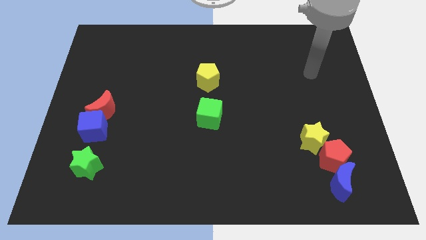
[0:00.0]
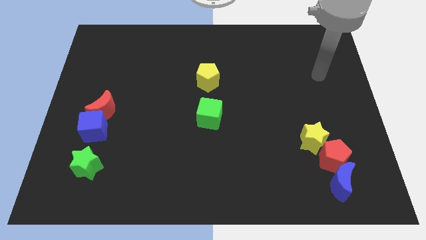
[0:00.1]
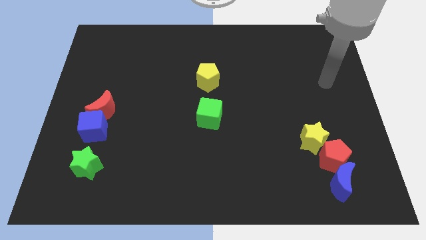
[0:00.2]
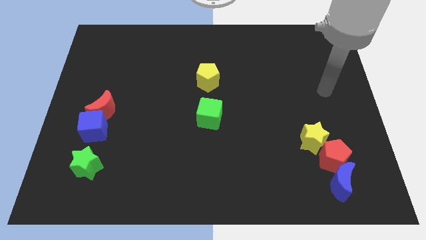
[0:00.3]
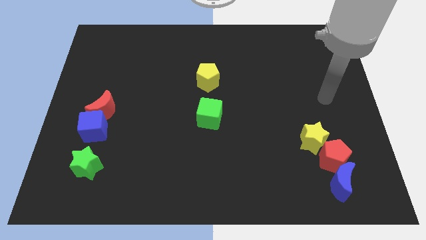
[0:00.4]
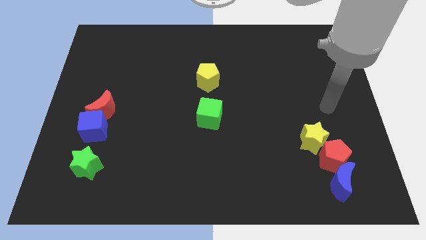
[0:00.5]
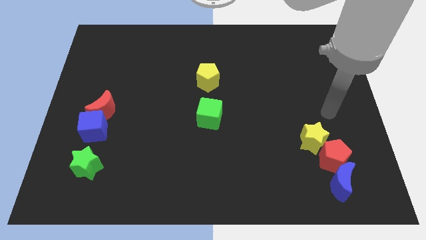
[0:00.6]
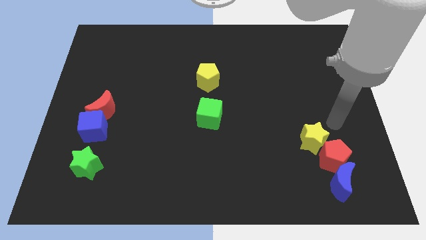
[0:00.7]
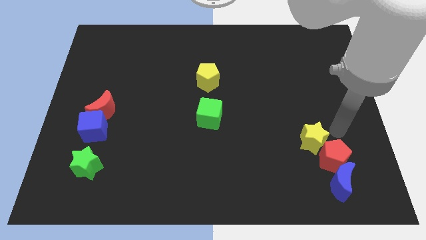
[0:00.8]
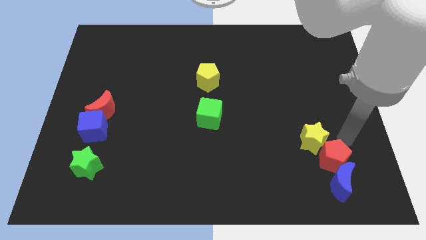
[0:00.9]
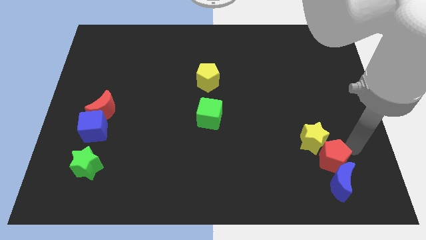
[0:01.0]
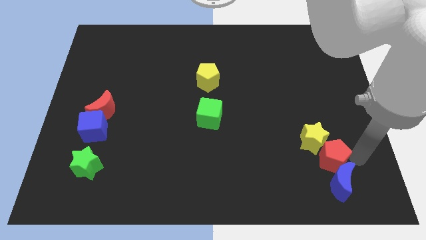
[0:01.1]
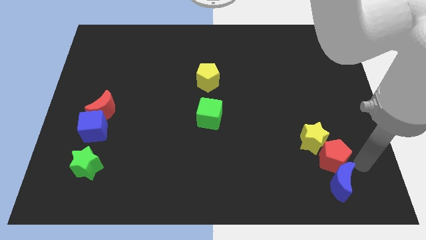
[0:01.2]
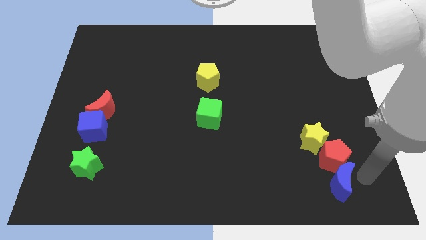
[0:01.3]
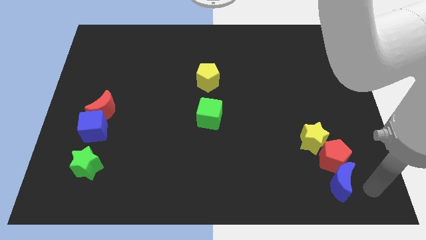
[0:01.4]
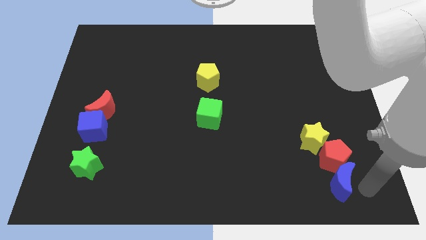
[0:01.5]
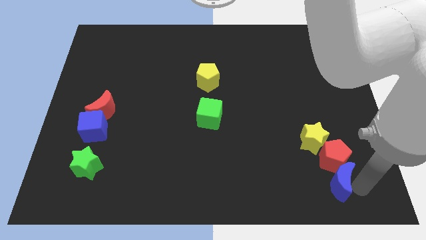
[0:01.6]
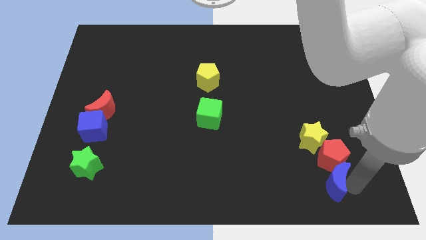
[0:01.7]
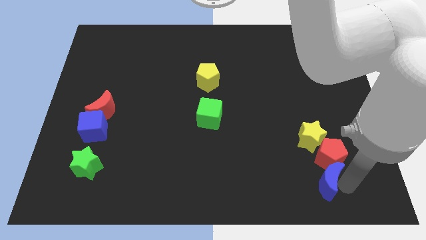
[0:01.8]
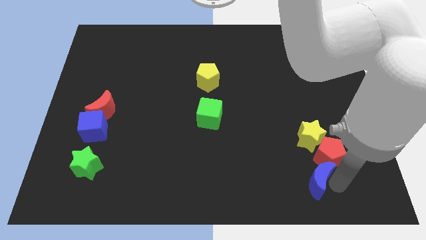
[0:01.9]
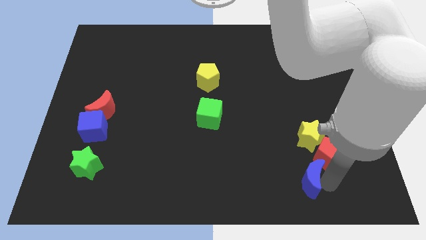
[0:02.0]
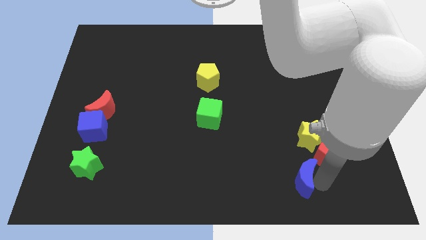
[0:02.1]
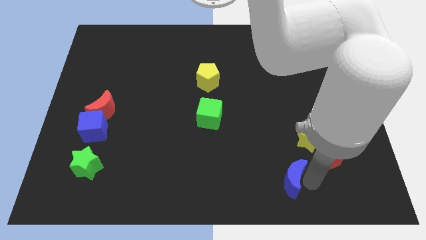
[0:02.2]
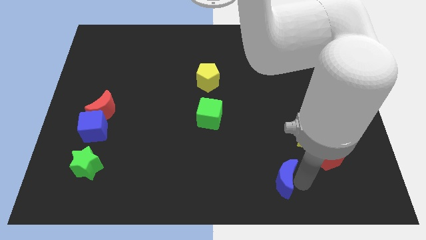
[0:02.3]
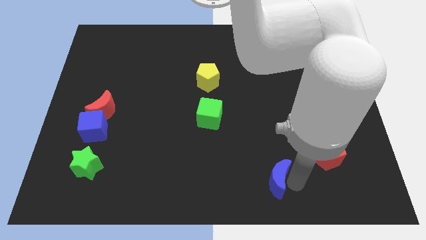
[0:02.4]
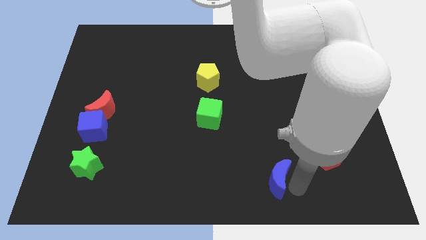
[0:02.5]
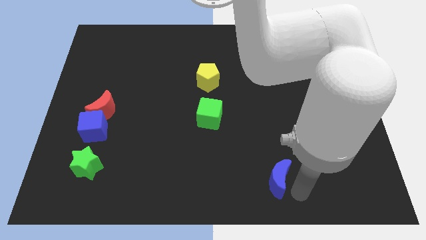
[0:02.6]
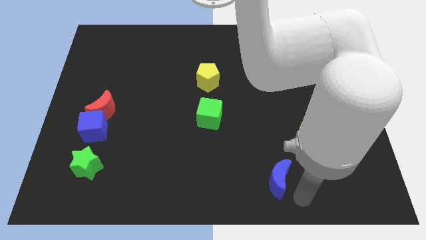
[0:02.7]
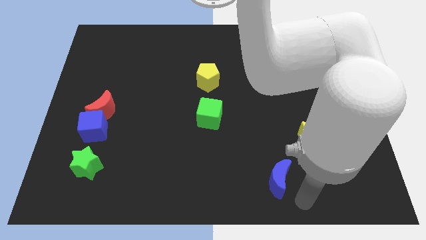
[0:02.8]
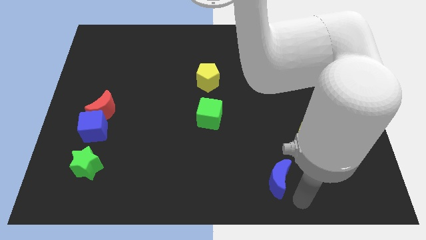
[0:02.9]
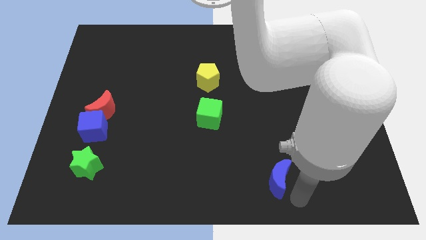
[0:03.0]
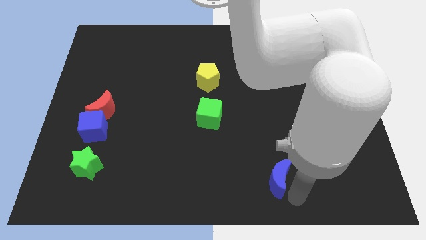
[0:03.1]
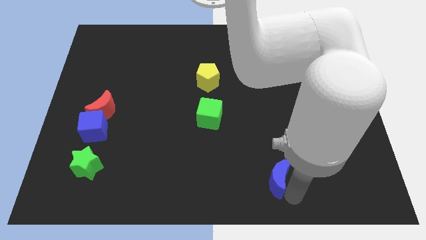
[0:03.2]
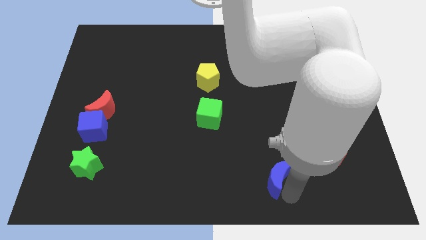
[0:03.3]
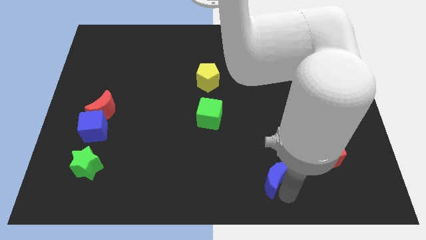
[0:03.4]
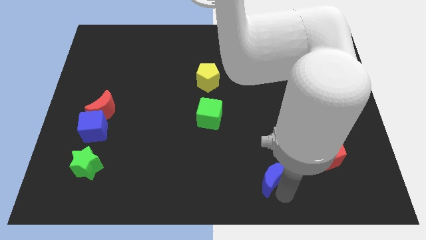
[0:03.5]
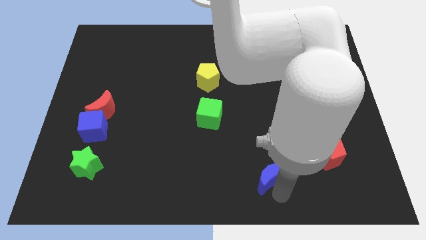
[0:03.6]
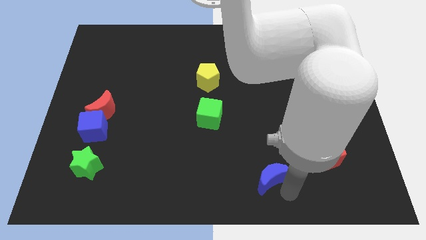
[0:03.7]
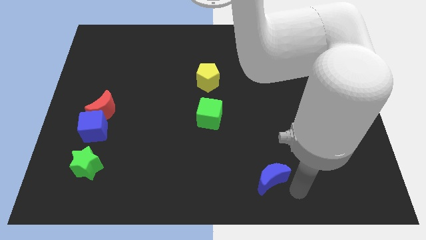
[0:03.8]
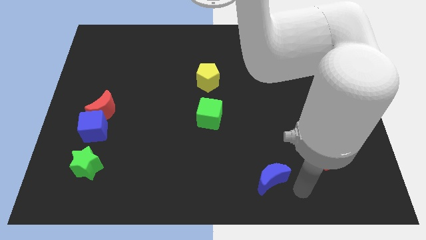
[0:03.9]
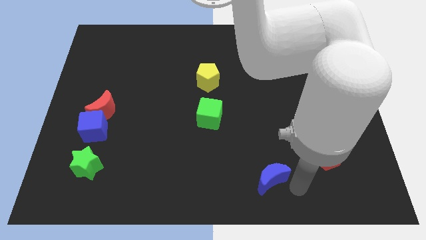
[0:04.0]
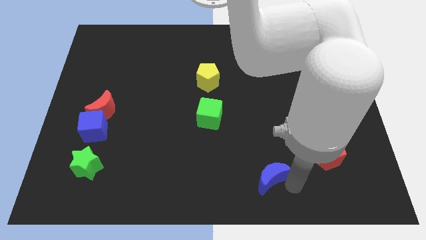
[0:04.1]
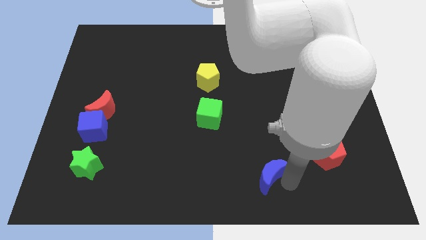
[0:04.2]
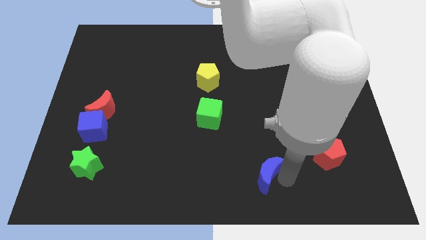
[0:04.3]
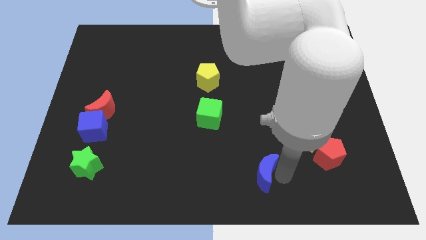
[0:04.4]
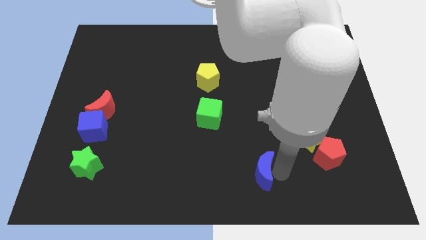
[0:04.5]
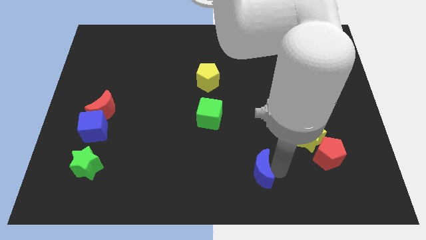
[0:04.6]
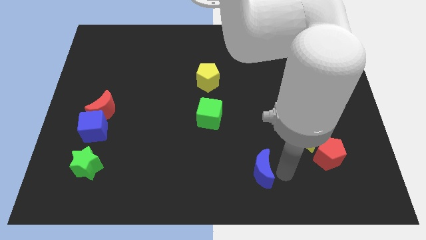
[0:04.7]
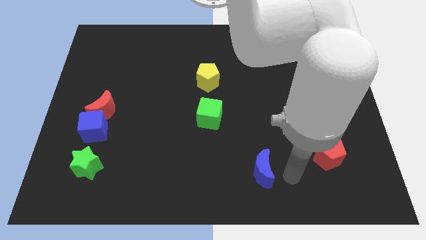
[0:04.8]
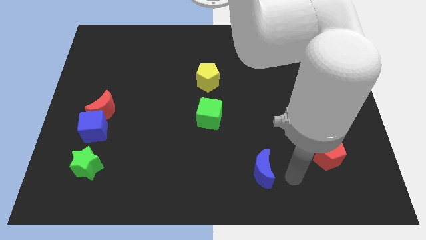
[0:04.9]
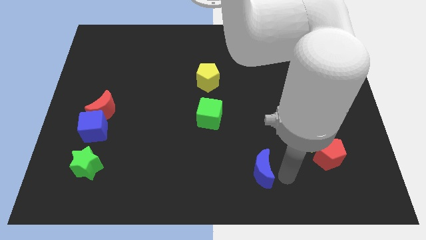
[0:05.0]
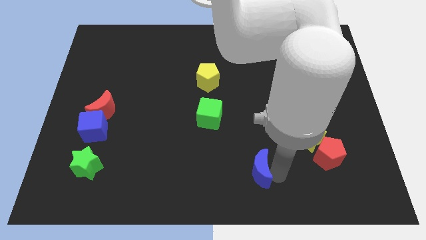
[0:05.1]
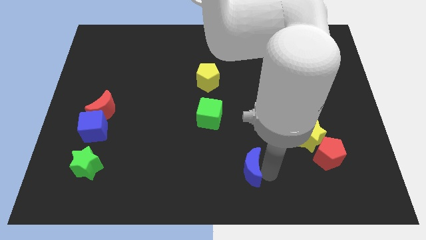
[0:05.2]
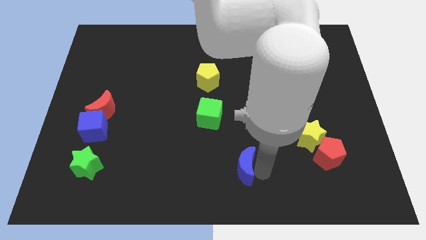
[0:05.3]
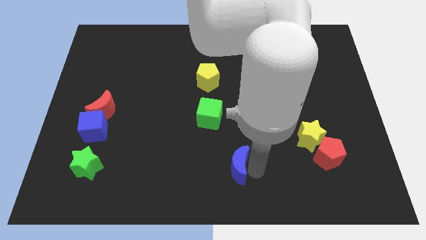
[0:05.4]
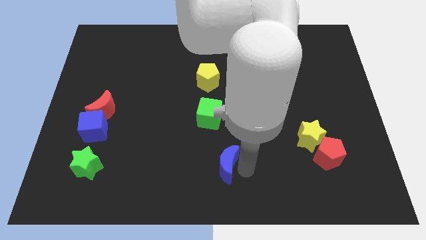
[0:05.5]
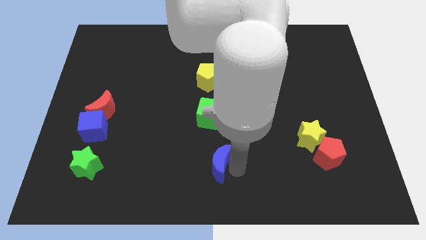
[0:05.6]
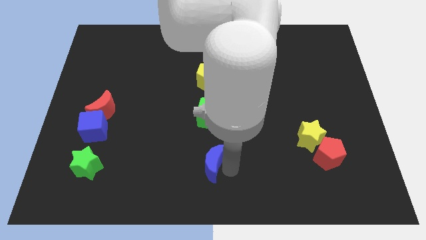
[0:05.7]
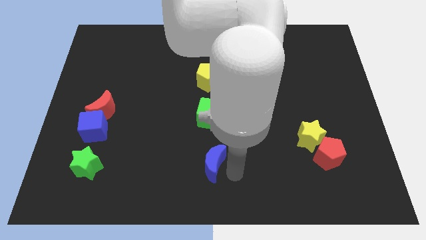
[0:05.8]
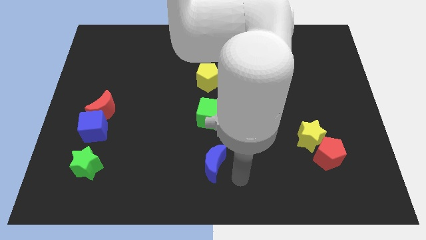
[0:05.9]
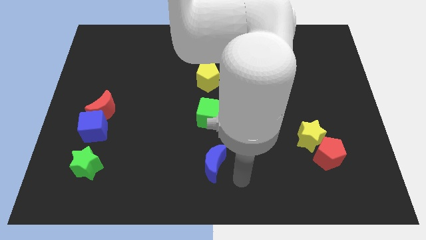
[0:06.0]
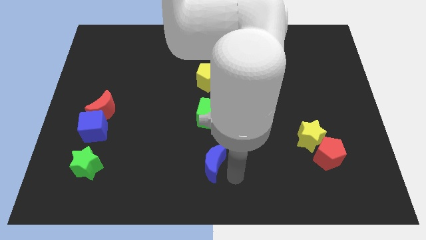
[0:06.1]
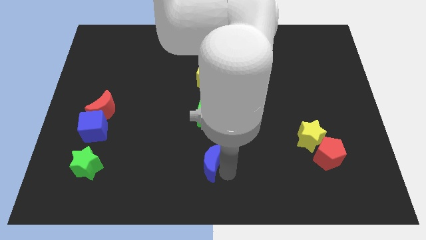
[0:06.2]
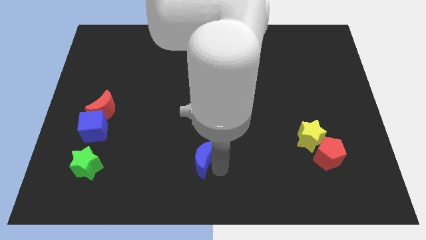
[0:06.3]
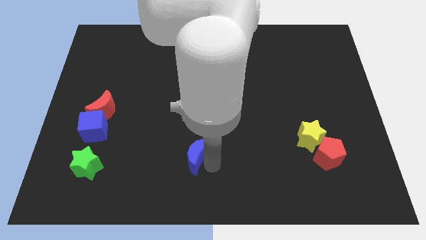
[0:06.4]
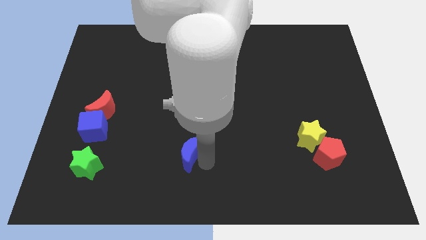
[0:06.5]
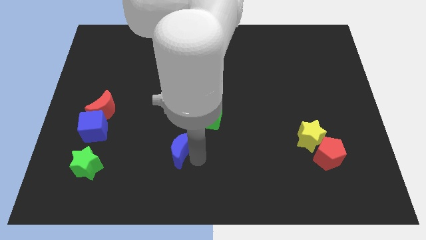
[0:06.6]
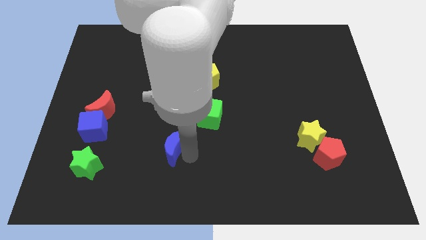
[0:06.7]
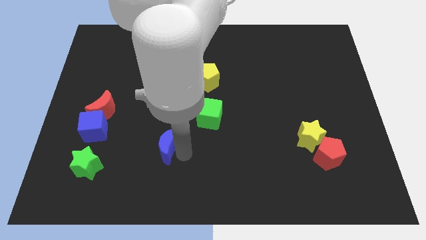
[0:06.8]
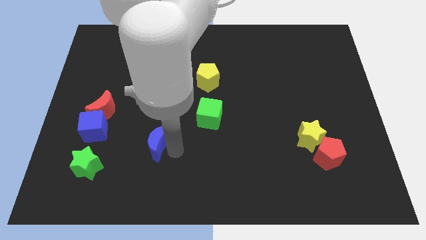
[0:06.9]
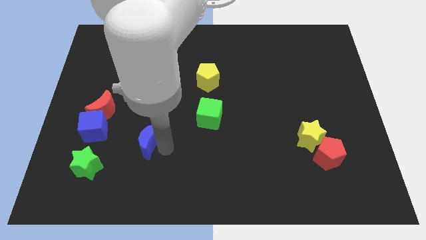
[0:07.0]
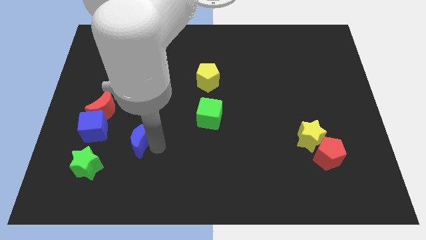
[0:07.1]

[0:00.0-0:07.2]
put the blue moon to the bottom right side of the red moon
